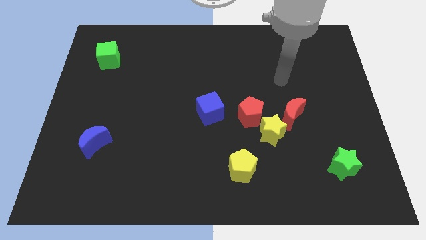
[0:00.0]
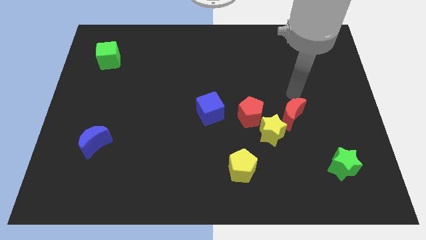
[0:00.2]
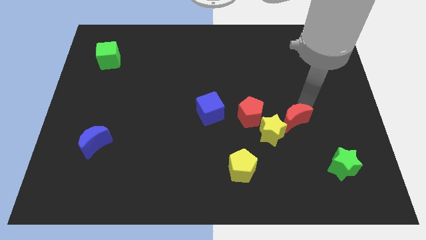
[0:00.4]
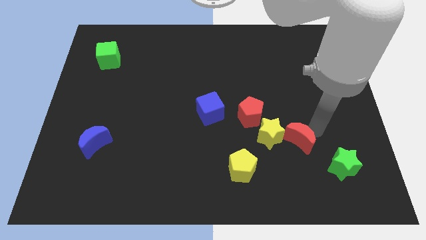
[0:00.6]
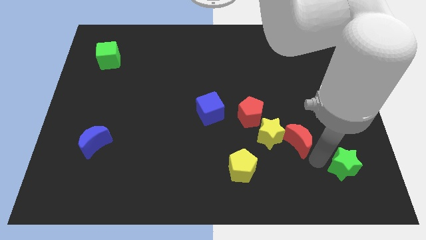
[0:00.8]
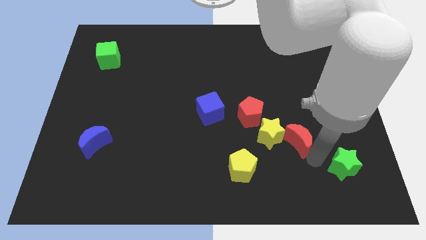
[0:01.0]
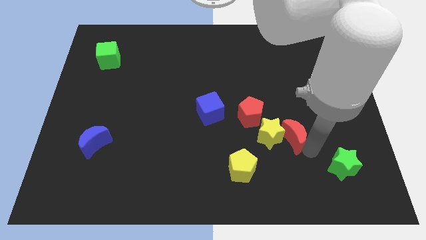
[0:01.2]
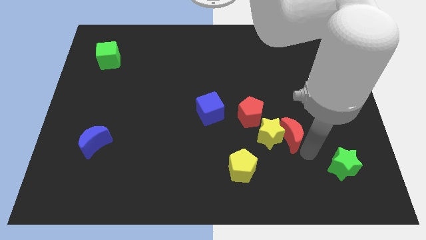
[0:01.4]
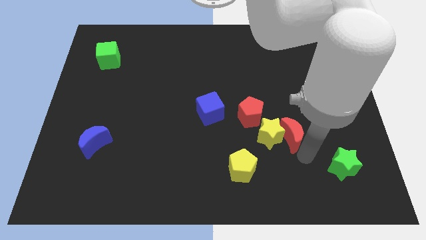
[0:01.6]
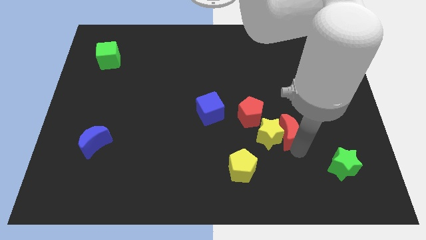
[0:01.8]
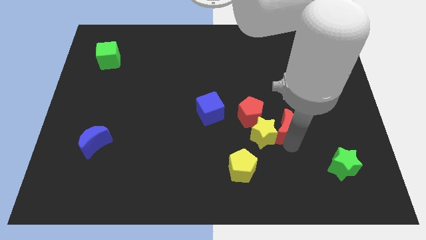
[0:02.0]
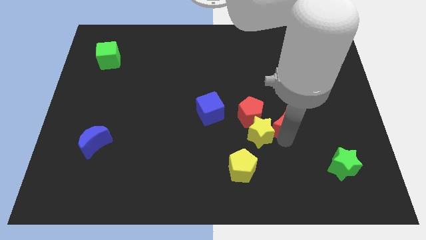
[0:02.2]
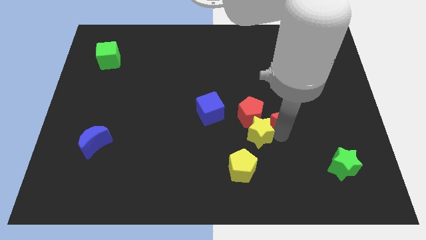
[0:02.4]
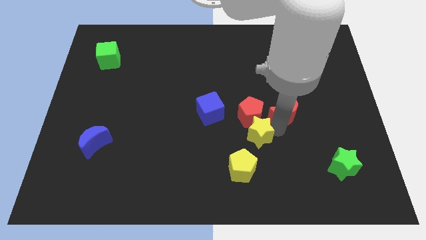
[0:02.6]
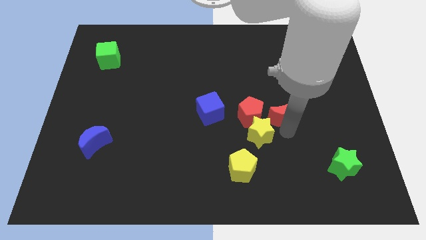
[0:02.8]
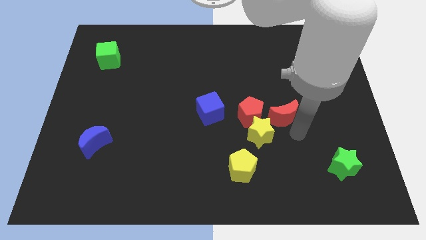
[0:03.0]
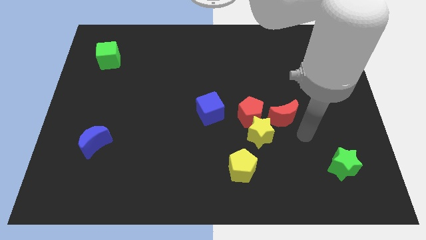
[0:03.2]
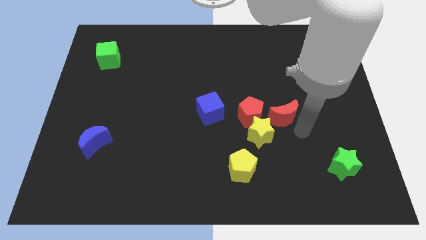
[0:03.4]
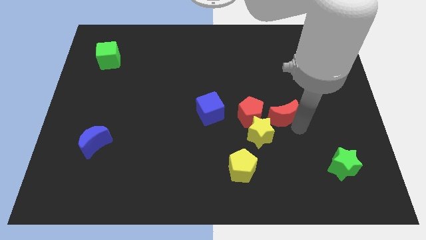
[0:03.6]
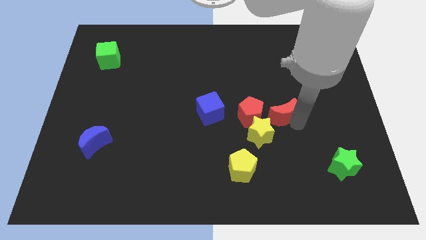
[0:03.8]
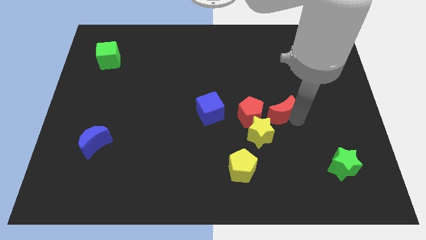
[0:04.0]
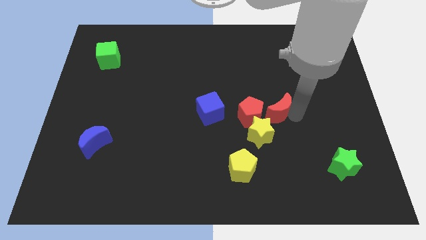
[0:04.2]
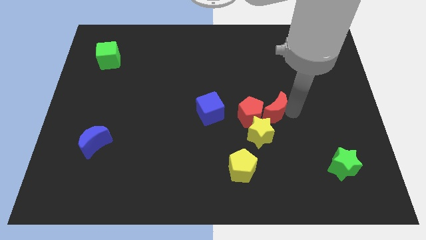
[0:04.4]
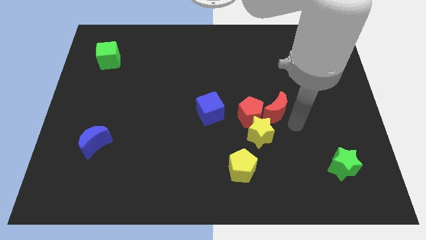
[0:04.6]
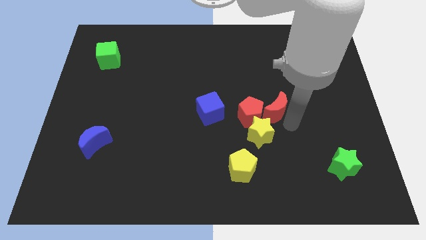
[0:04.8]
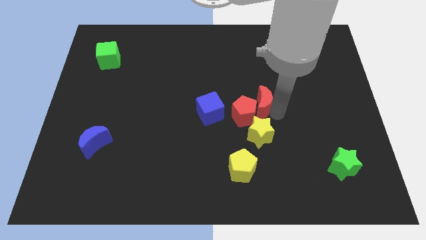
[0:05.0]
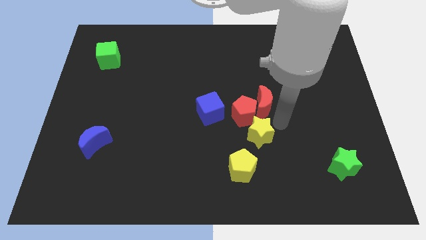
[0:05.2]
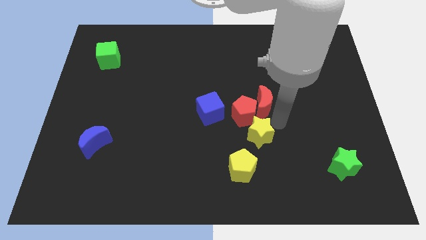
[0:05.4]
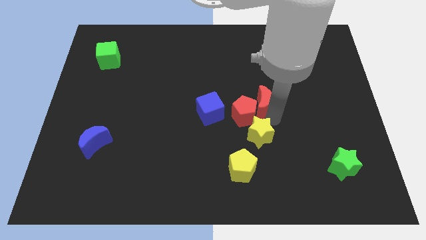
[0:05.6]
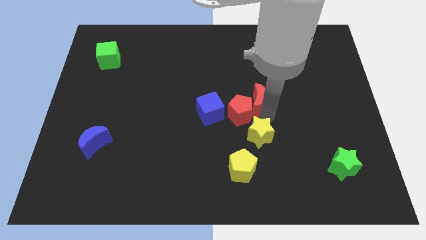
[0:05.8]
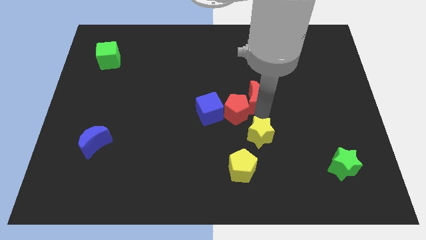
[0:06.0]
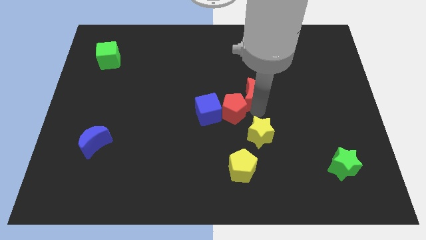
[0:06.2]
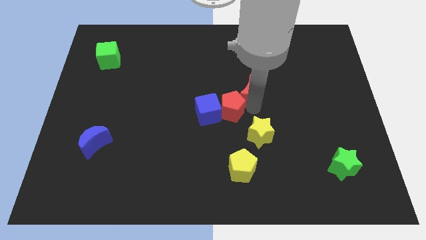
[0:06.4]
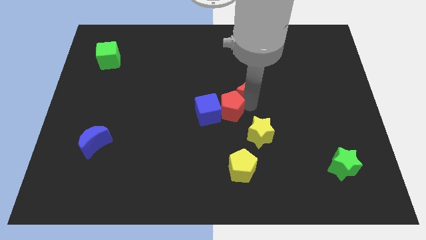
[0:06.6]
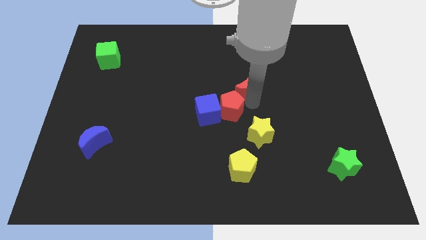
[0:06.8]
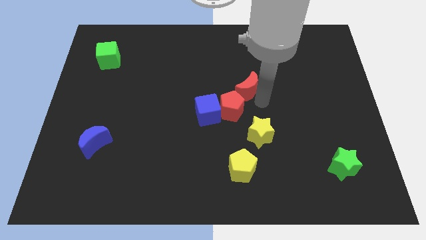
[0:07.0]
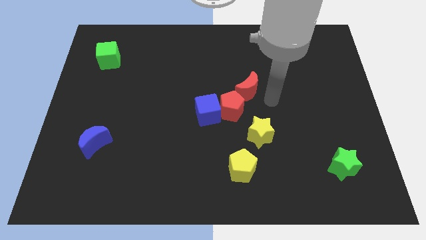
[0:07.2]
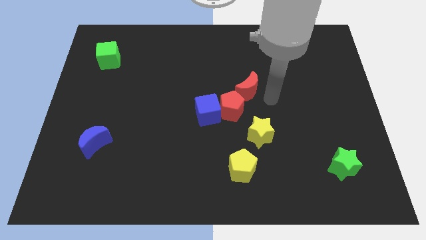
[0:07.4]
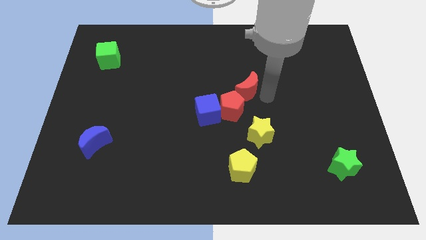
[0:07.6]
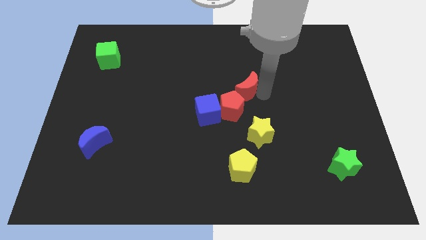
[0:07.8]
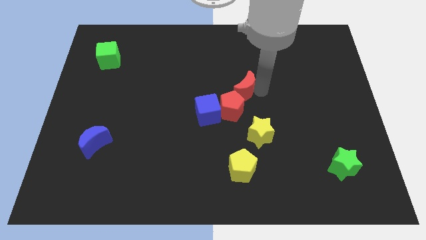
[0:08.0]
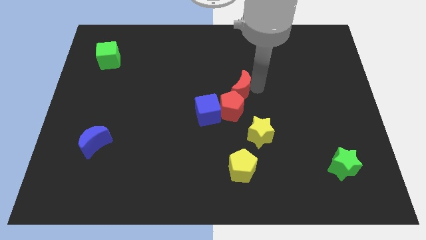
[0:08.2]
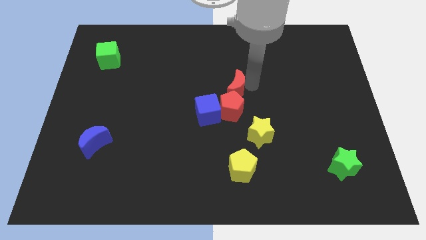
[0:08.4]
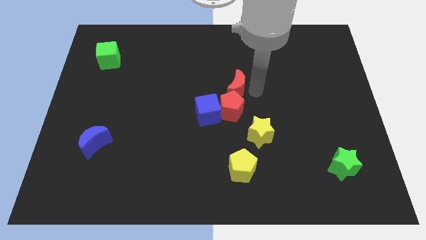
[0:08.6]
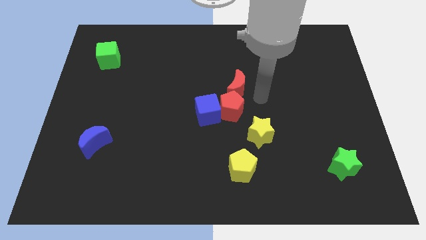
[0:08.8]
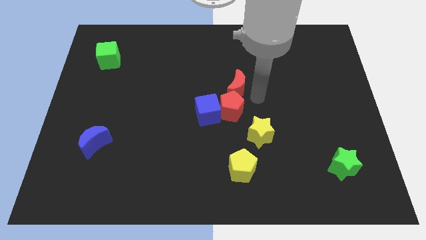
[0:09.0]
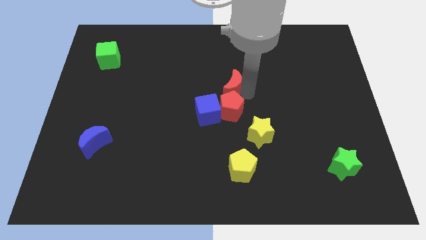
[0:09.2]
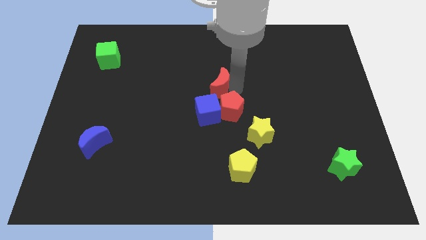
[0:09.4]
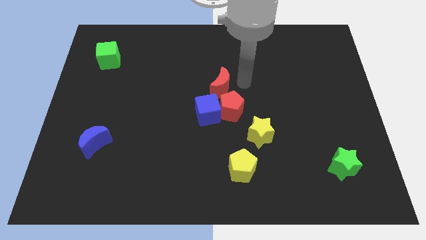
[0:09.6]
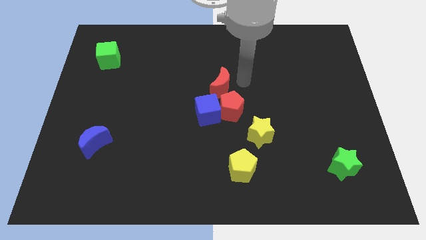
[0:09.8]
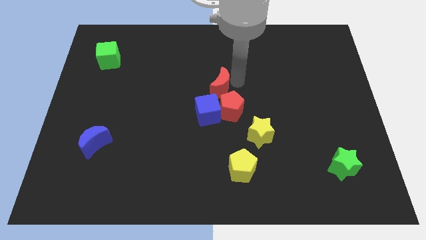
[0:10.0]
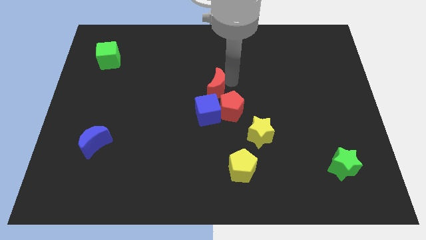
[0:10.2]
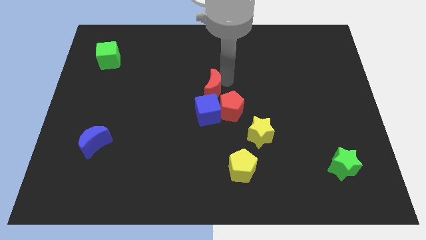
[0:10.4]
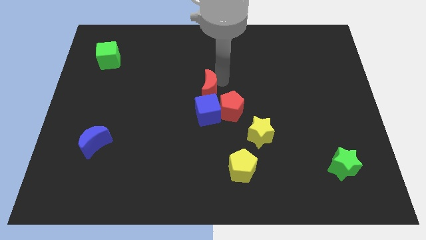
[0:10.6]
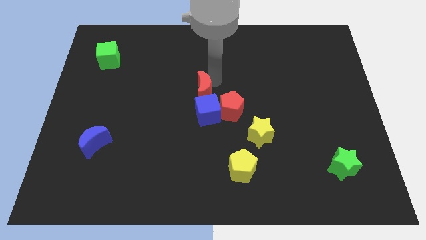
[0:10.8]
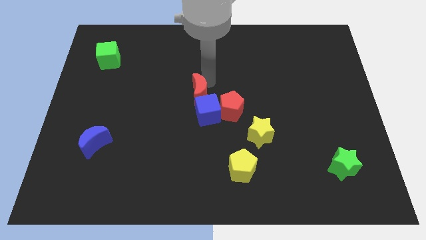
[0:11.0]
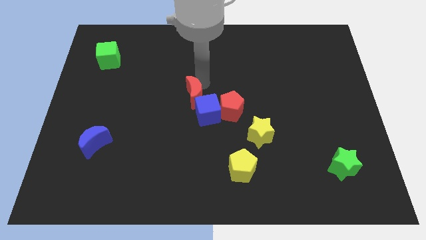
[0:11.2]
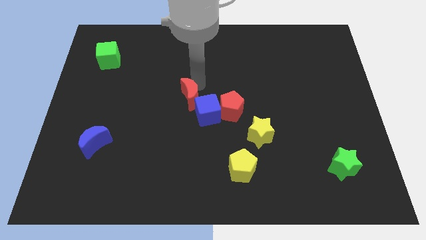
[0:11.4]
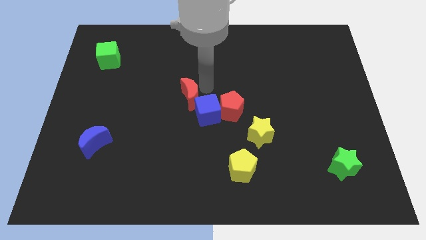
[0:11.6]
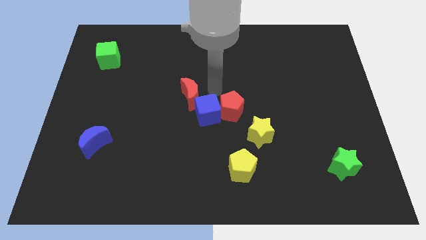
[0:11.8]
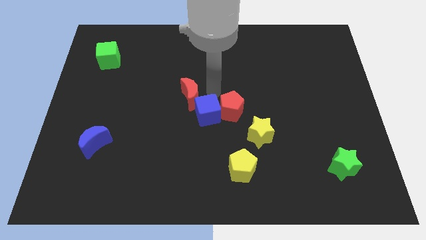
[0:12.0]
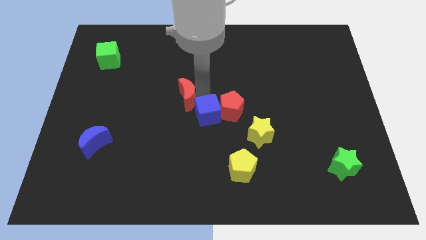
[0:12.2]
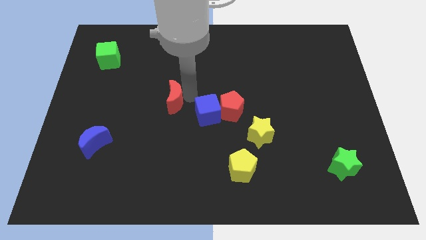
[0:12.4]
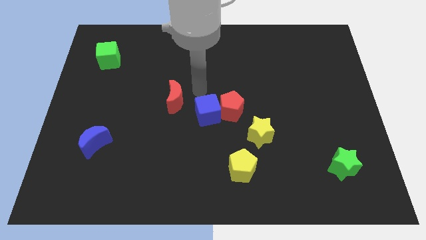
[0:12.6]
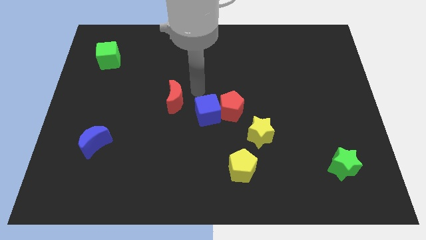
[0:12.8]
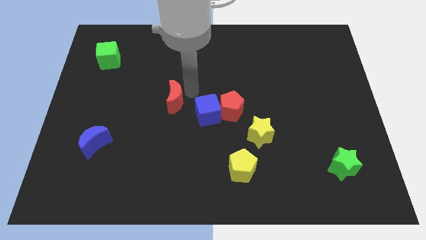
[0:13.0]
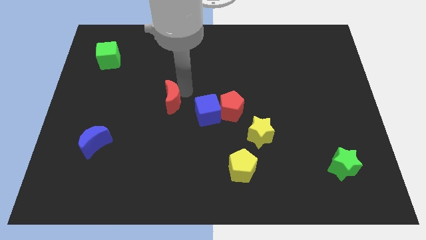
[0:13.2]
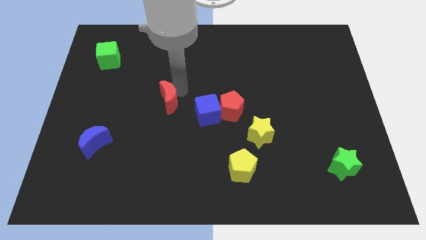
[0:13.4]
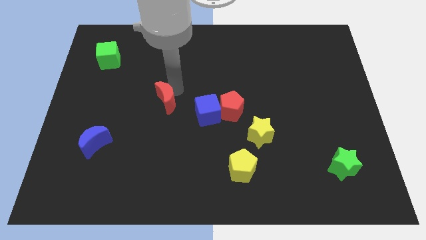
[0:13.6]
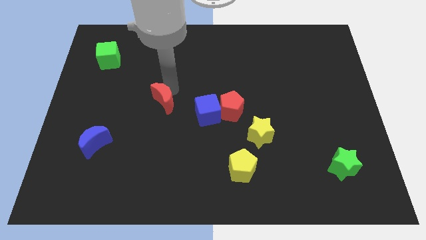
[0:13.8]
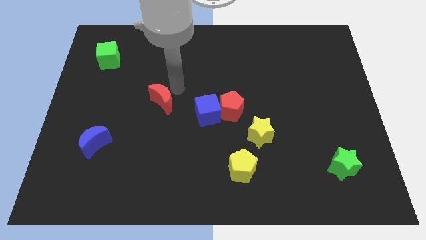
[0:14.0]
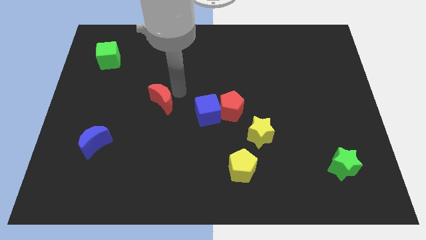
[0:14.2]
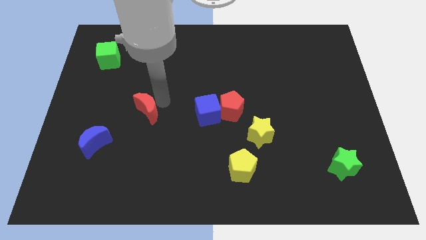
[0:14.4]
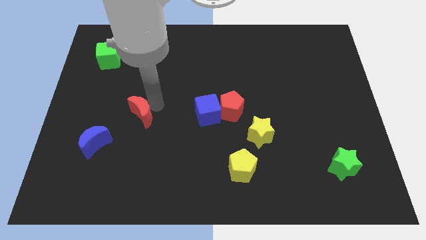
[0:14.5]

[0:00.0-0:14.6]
put the red moon to the top right of the blue moon
